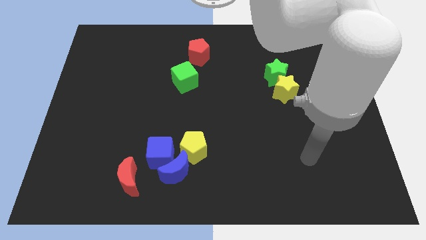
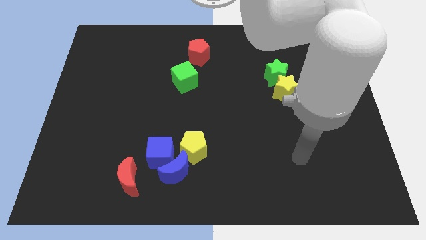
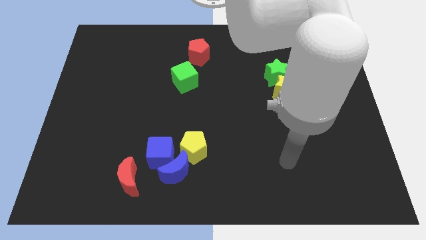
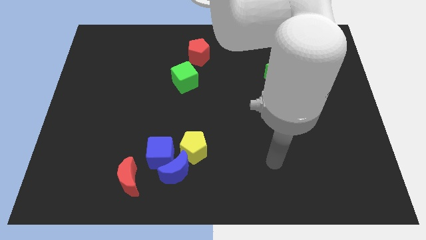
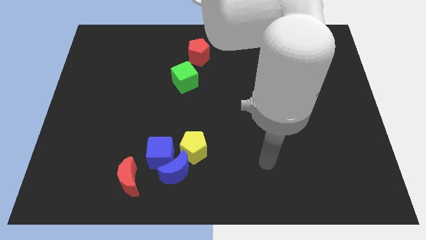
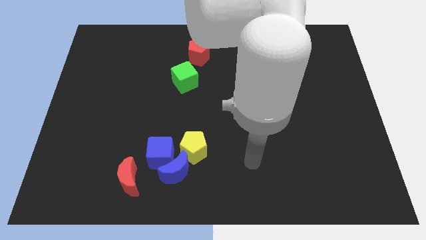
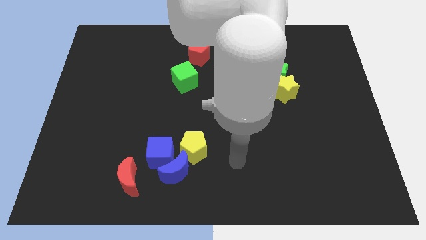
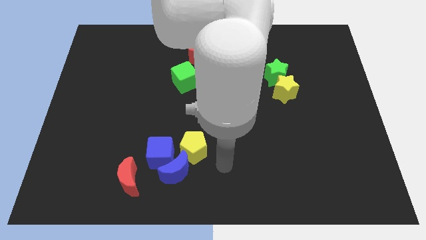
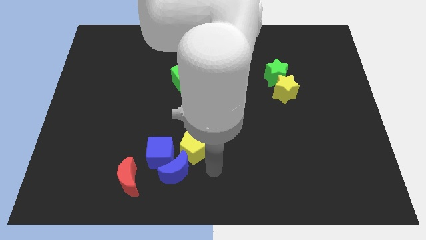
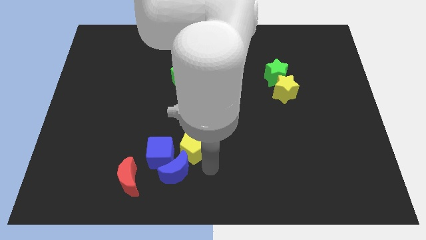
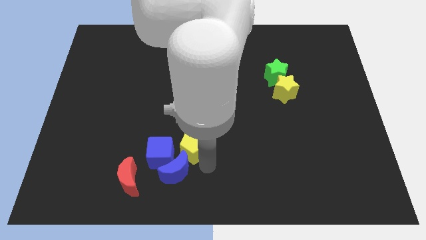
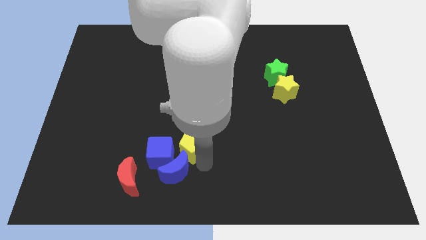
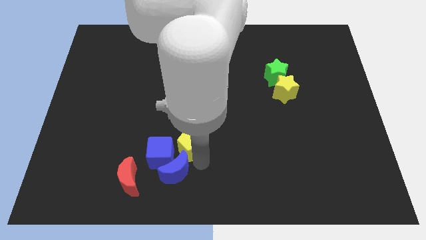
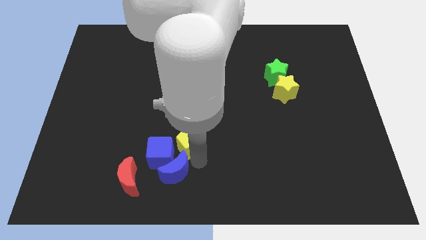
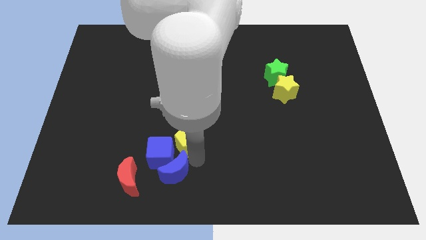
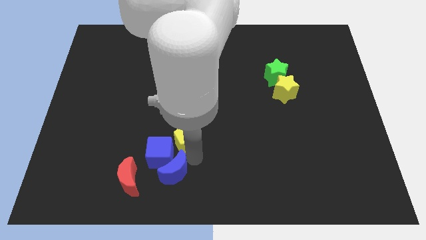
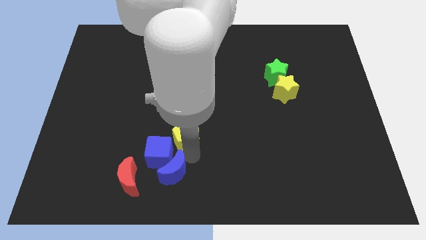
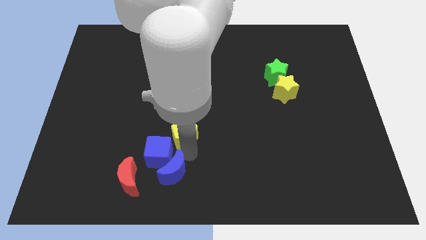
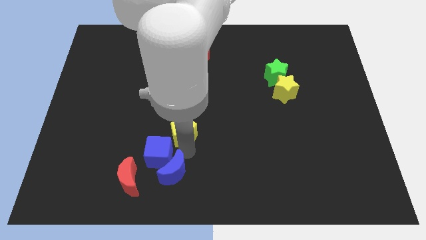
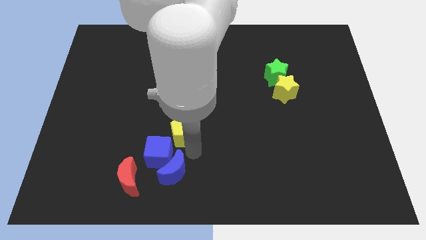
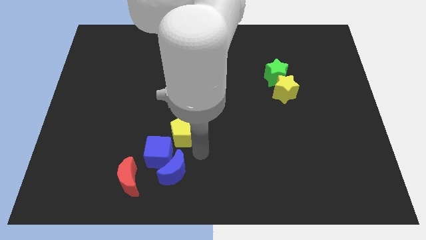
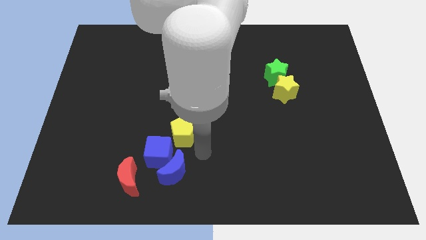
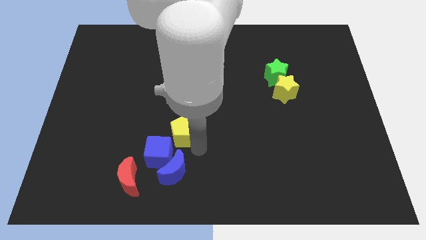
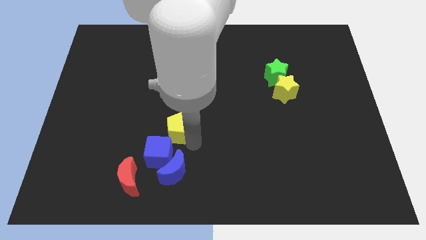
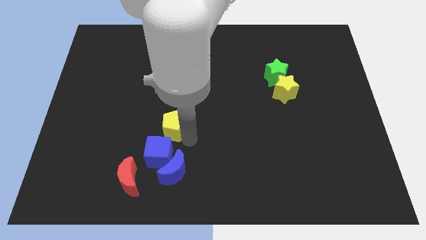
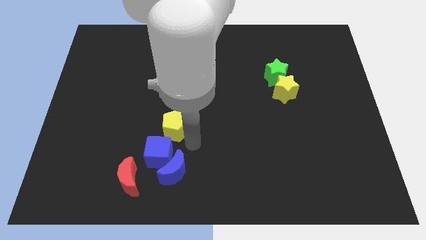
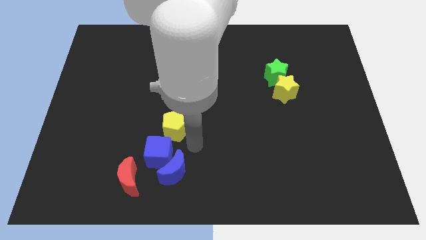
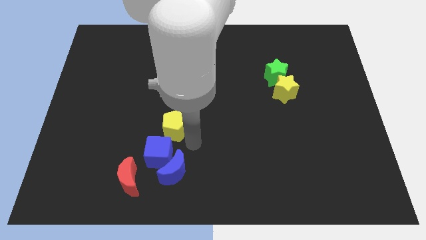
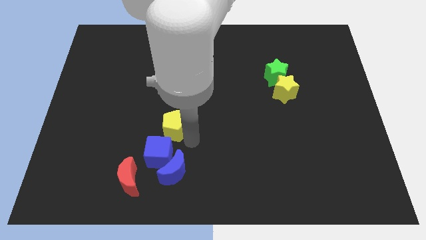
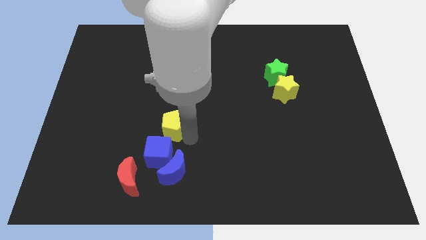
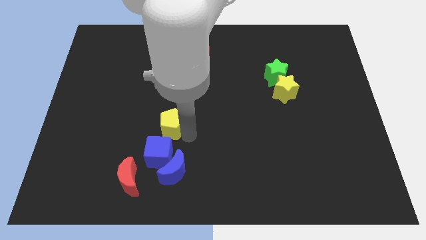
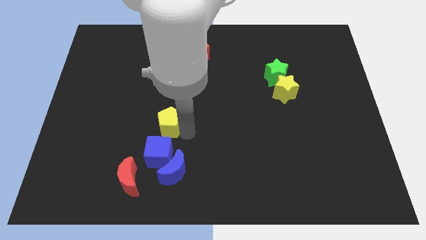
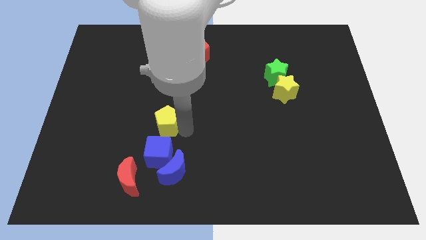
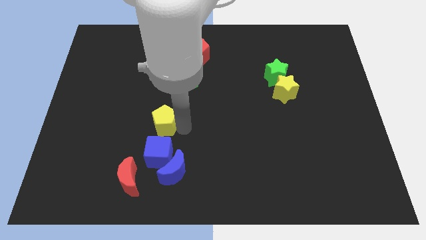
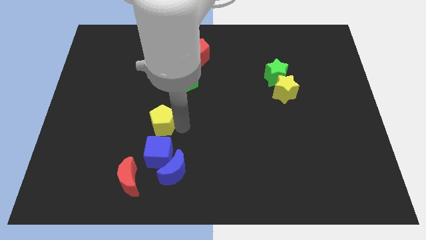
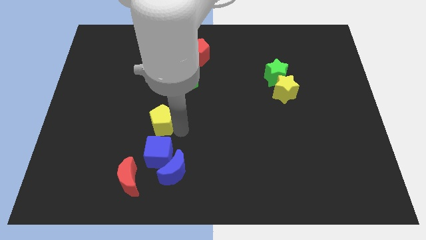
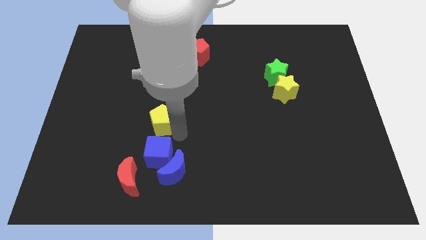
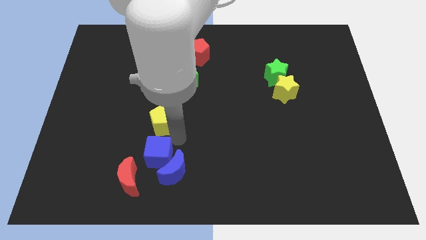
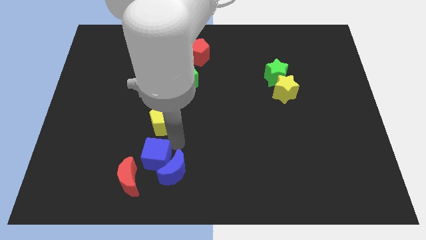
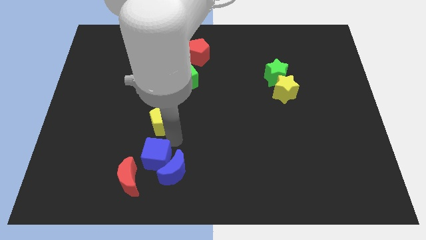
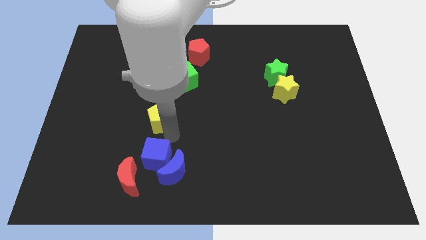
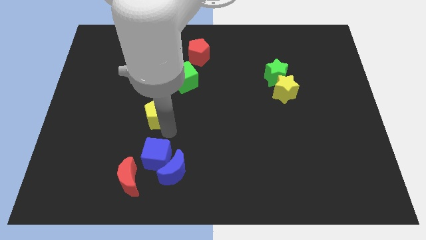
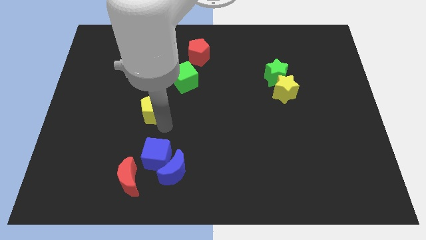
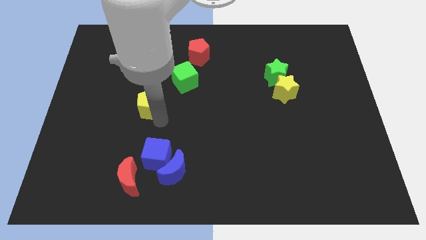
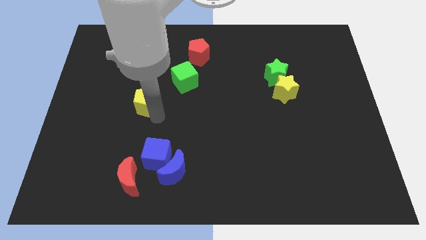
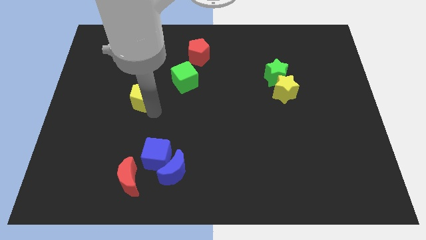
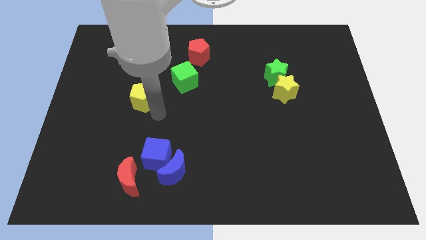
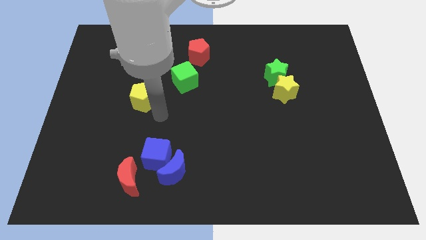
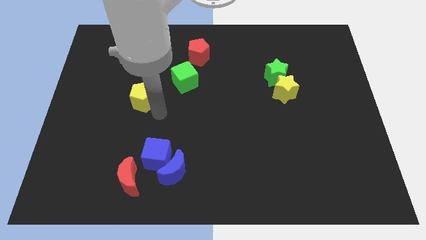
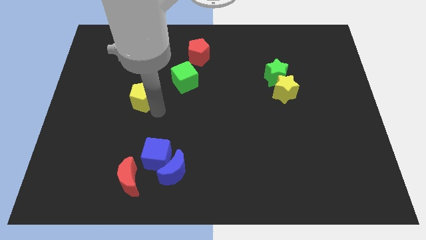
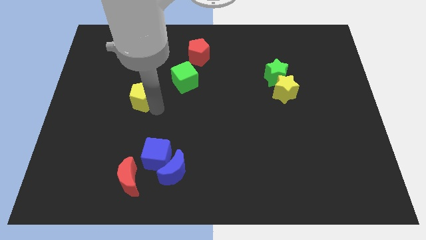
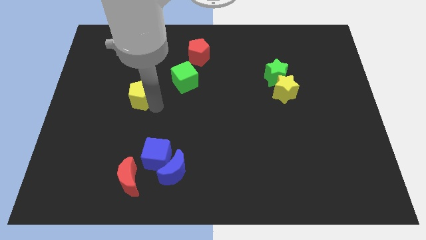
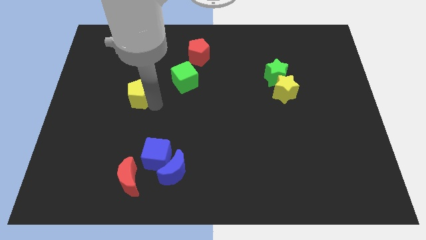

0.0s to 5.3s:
push the yellow pentagon upwards and left

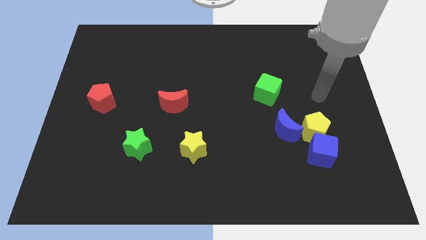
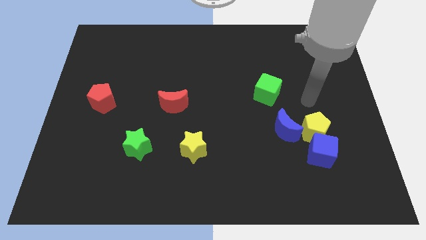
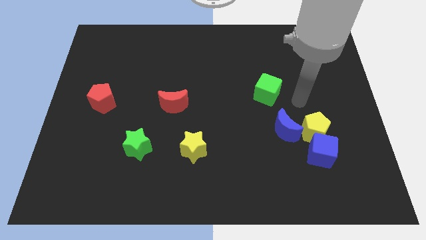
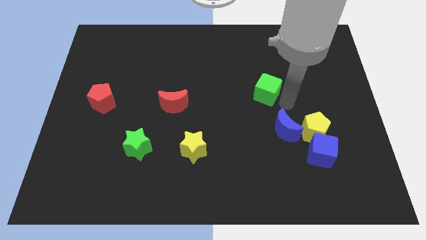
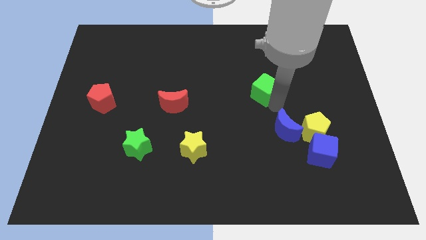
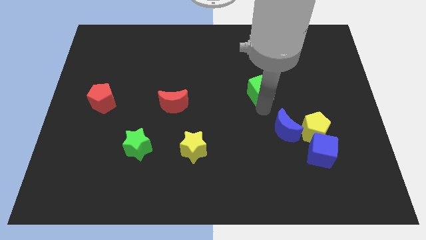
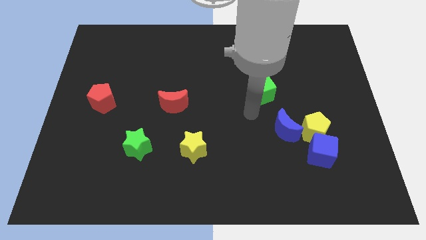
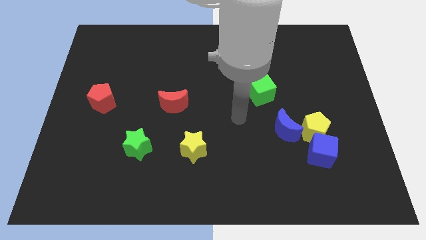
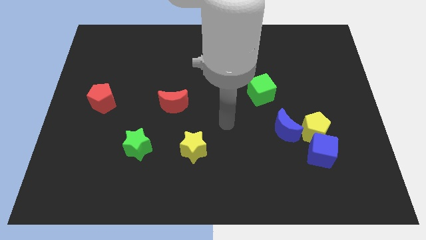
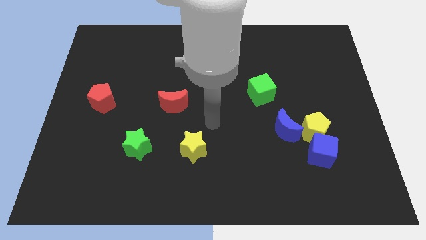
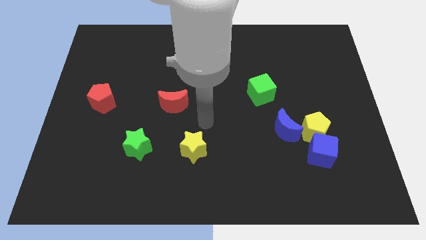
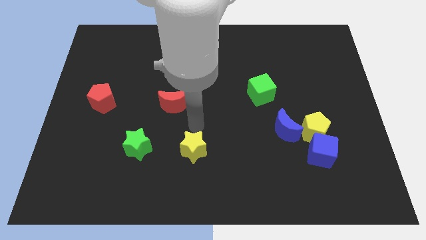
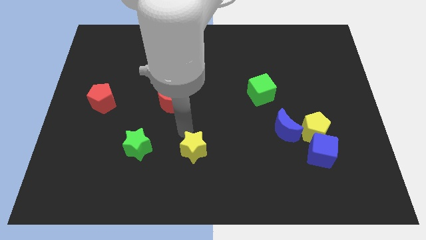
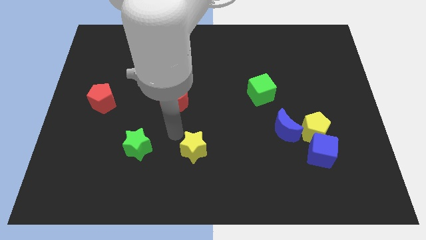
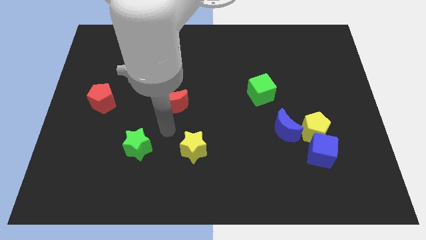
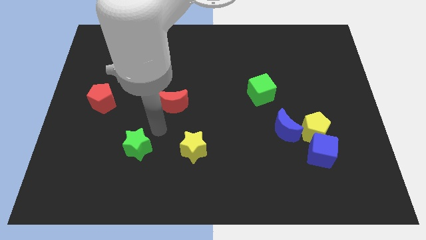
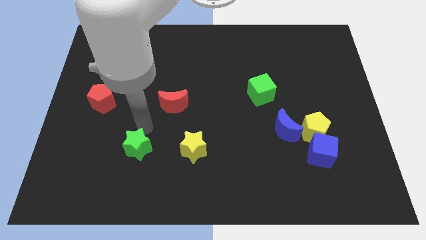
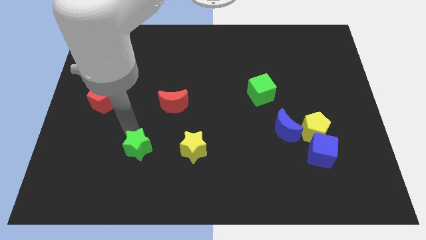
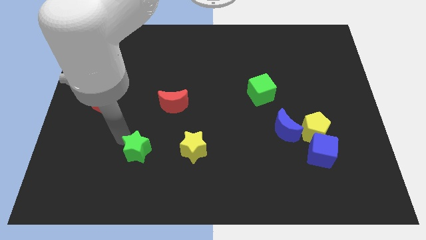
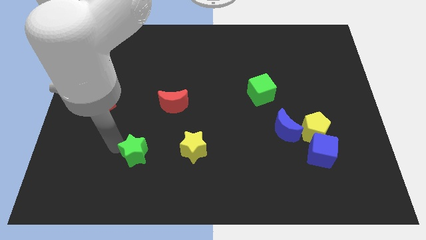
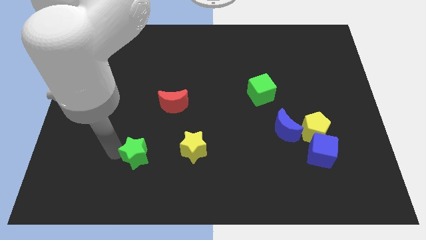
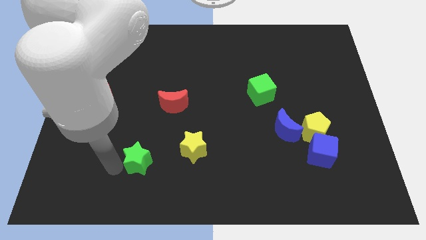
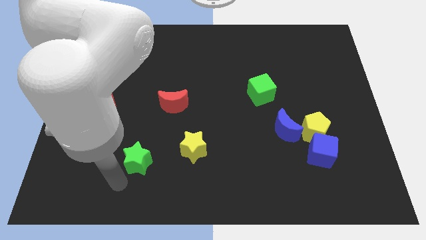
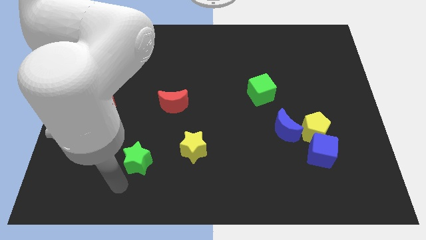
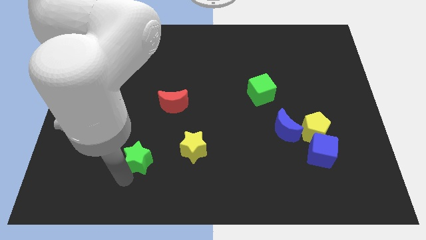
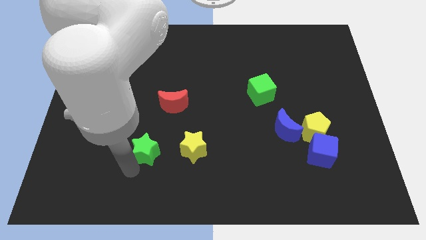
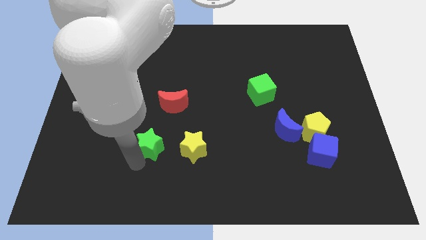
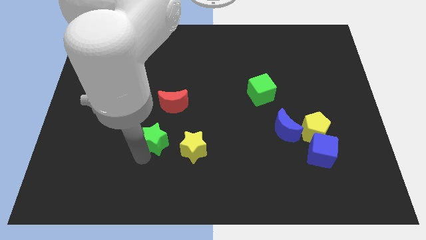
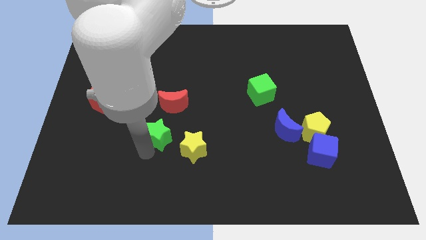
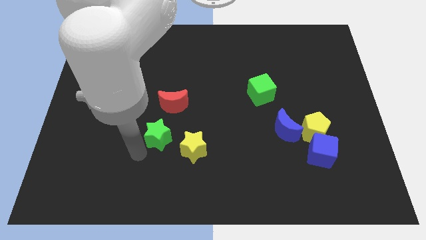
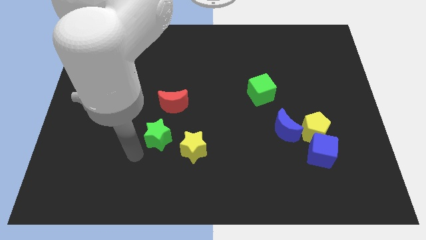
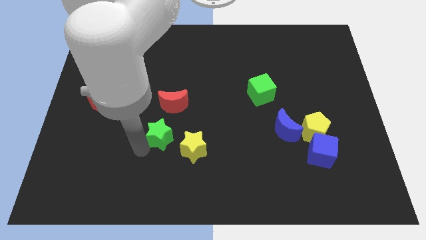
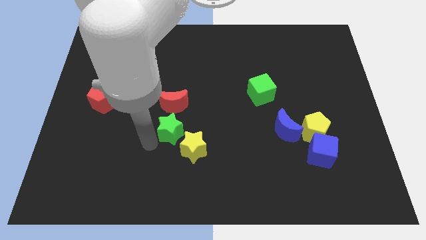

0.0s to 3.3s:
push the green star diagonally up and right somewhat

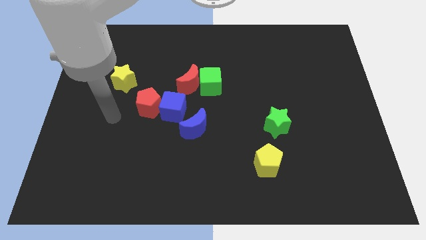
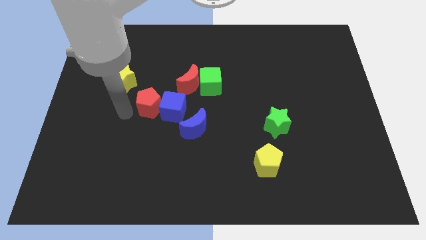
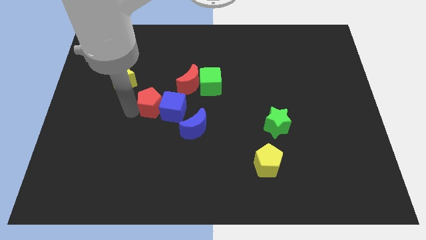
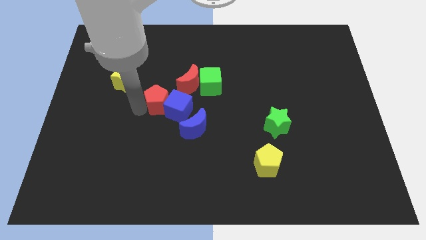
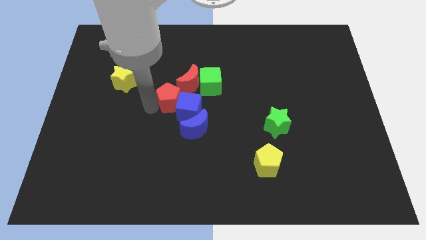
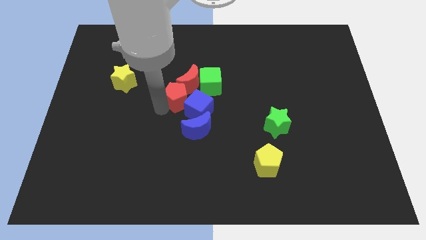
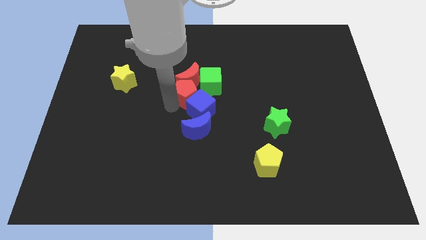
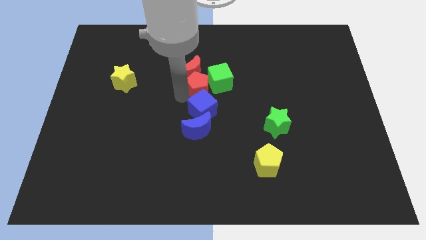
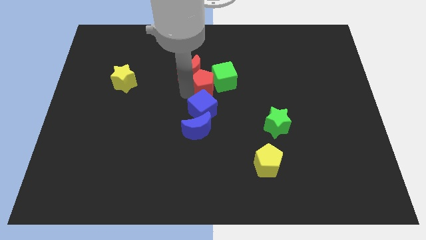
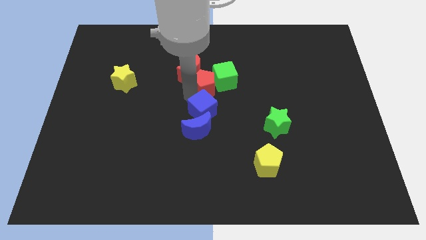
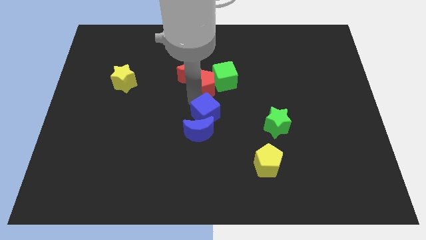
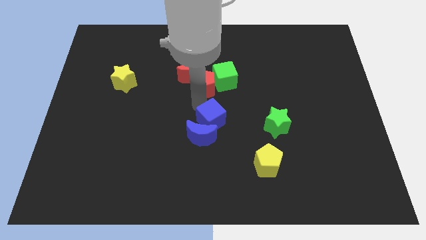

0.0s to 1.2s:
push the blue cube down and right a little bit
